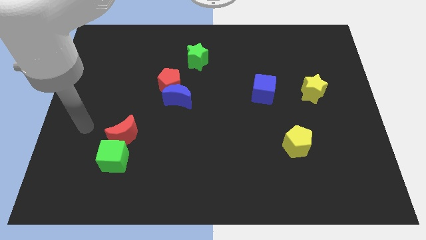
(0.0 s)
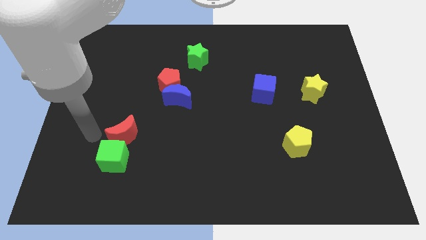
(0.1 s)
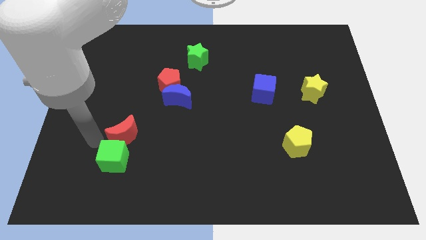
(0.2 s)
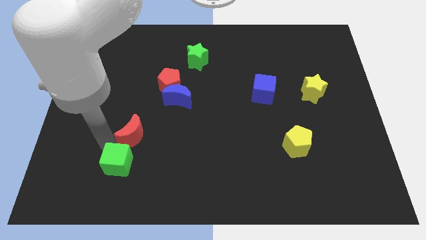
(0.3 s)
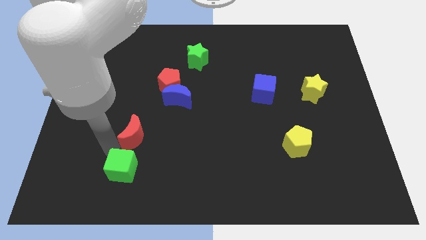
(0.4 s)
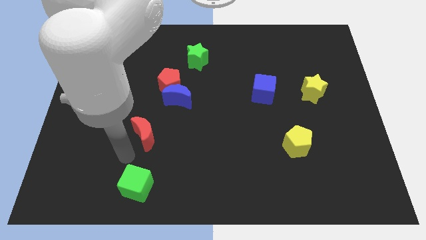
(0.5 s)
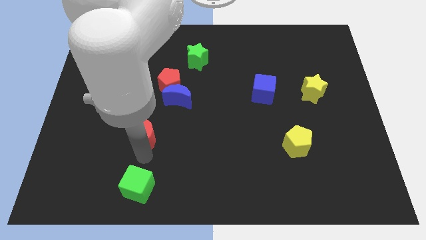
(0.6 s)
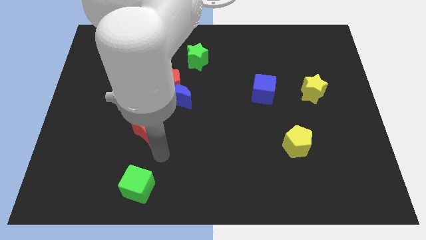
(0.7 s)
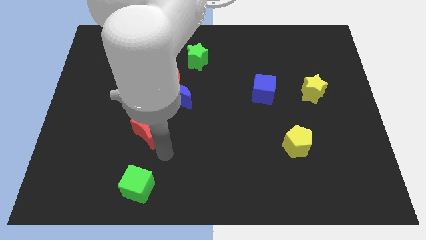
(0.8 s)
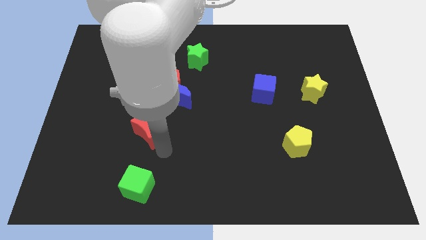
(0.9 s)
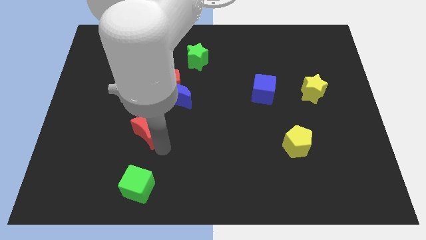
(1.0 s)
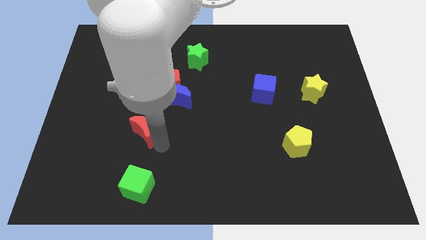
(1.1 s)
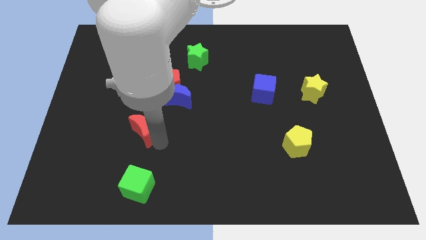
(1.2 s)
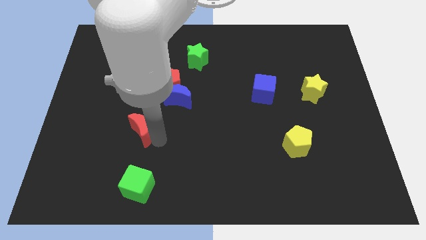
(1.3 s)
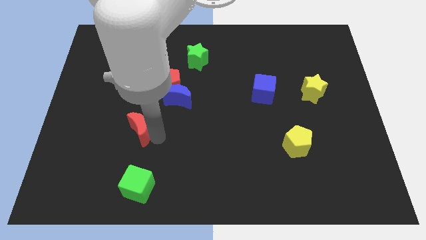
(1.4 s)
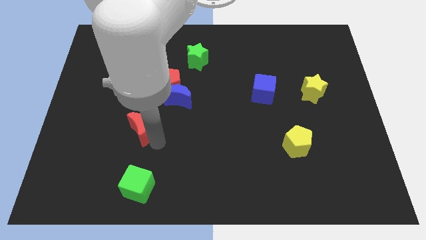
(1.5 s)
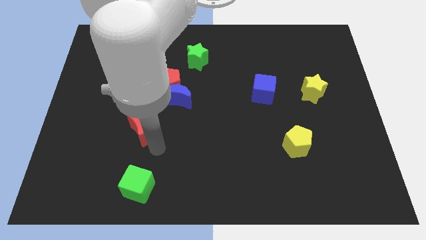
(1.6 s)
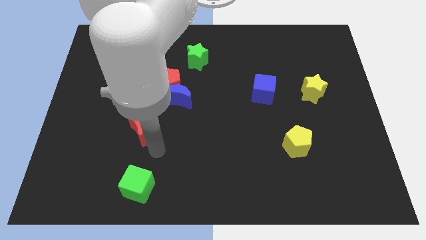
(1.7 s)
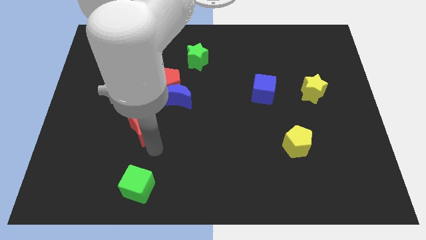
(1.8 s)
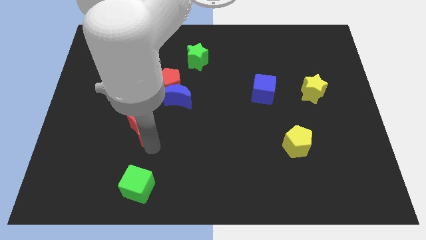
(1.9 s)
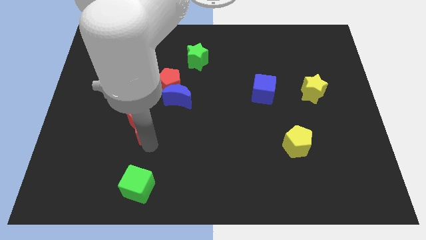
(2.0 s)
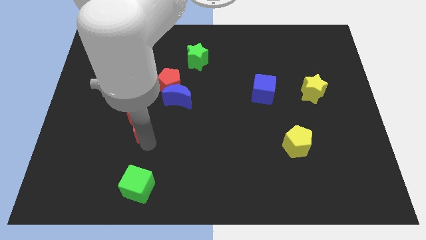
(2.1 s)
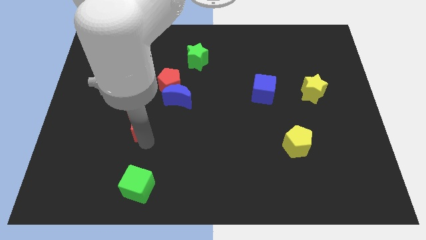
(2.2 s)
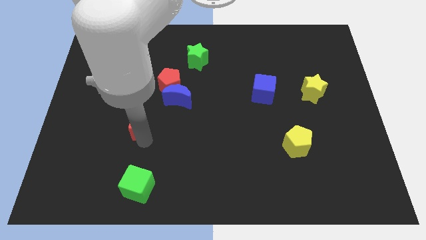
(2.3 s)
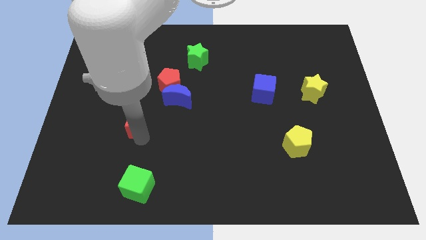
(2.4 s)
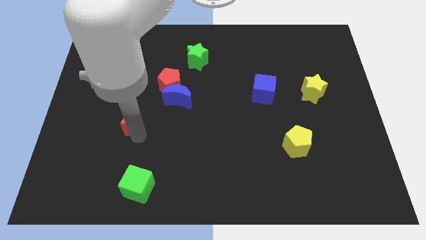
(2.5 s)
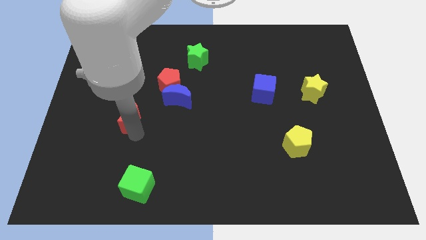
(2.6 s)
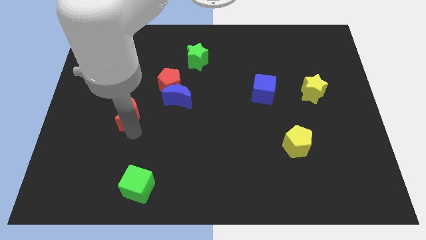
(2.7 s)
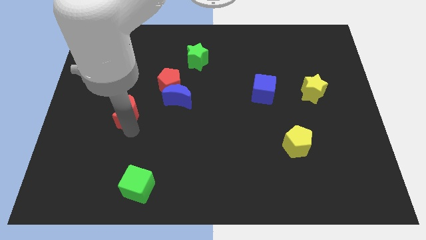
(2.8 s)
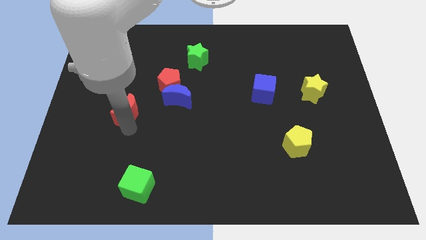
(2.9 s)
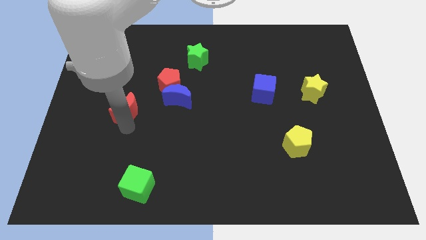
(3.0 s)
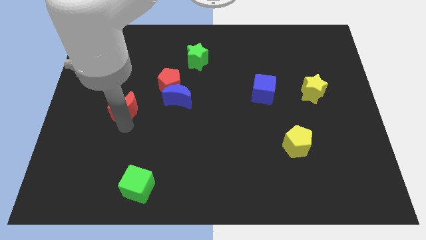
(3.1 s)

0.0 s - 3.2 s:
push the red moon a little bit upwards

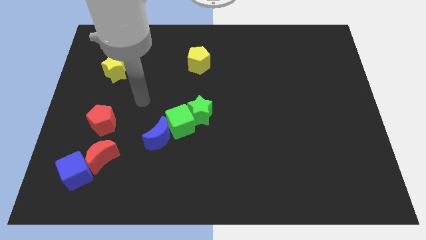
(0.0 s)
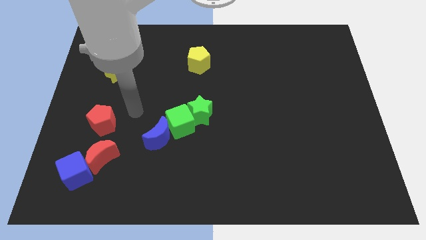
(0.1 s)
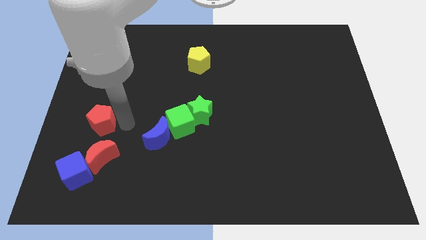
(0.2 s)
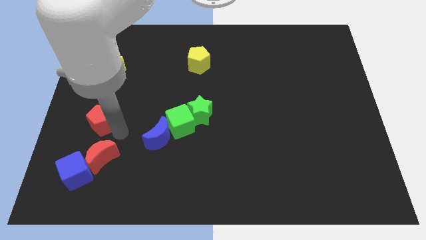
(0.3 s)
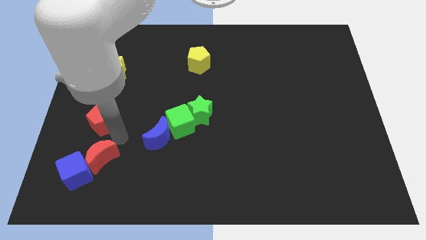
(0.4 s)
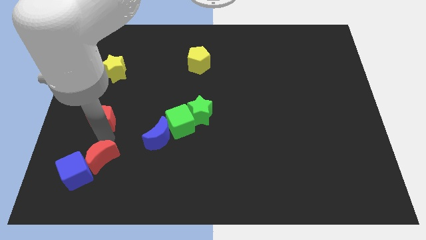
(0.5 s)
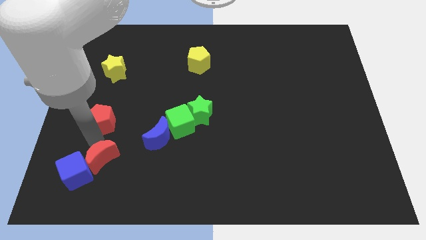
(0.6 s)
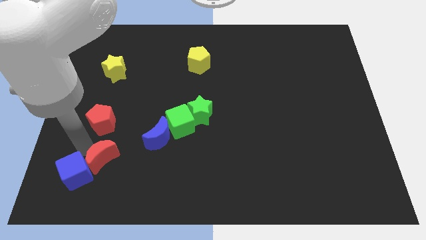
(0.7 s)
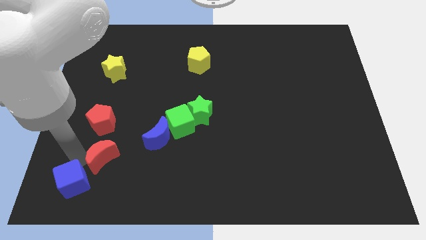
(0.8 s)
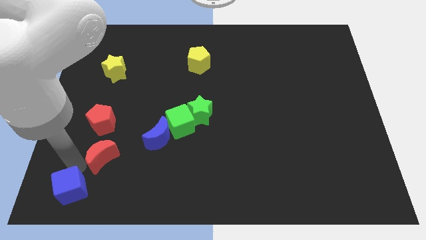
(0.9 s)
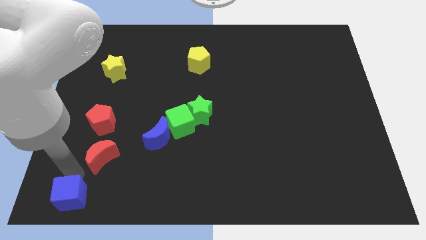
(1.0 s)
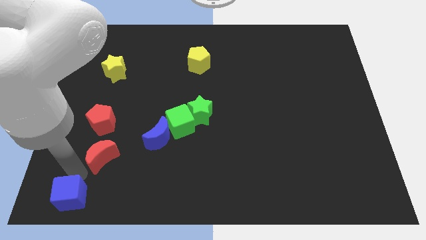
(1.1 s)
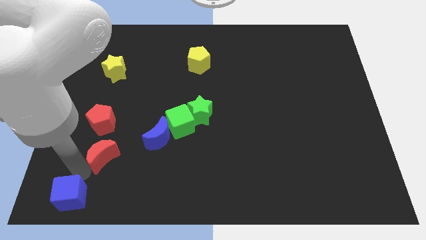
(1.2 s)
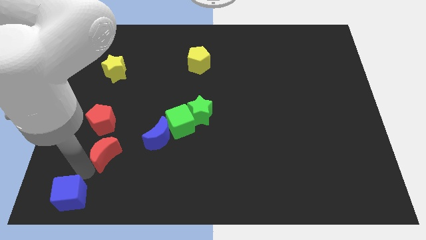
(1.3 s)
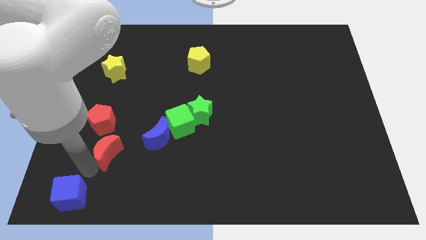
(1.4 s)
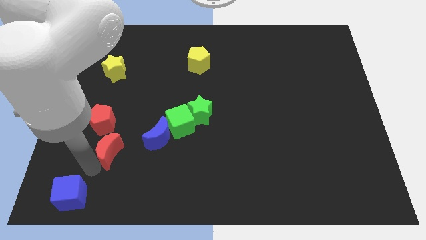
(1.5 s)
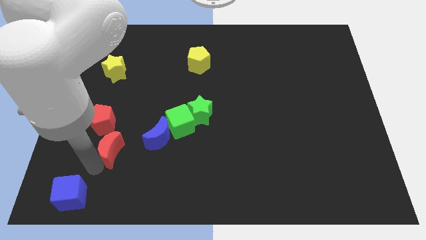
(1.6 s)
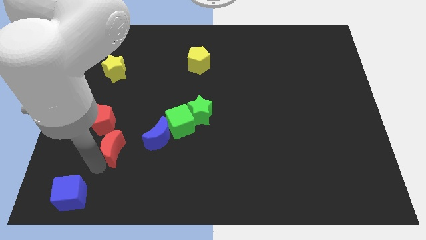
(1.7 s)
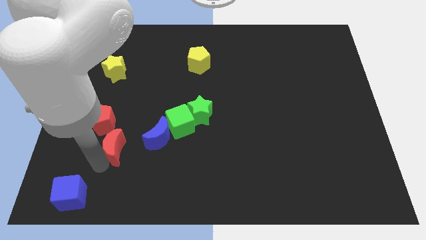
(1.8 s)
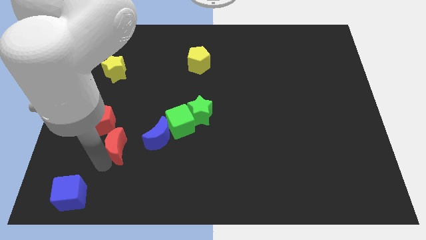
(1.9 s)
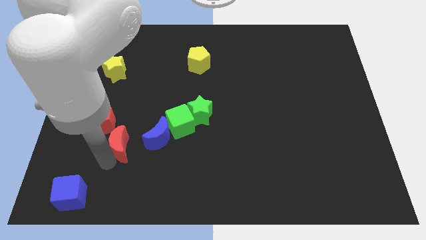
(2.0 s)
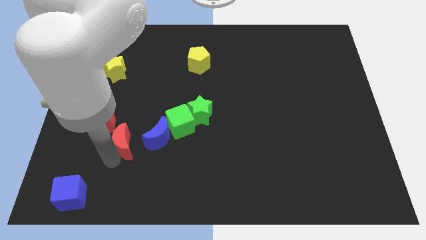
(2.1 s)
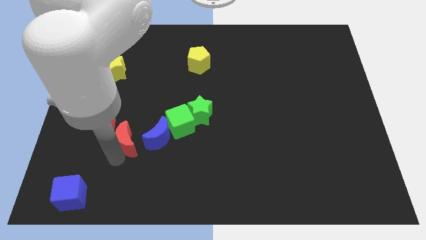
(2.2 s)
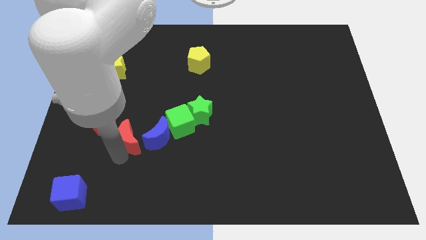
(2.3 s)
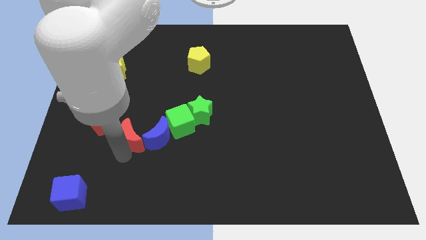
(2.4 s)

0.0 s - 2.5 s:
slide the red moon a little bit up and to the right diagonally

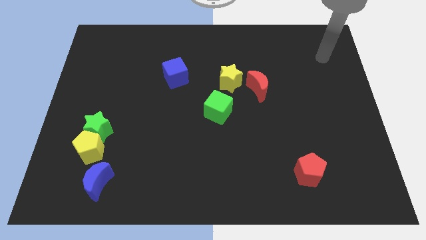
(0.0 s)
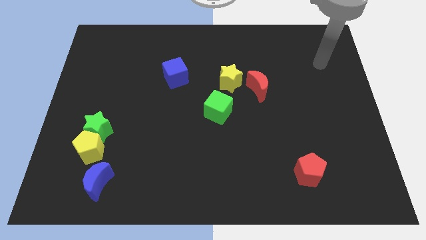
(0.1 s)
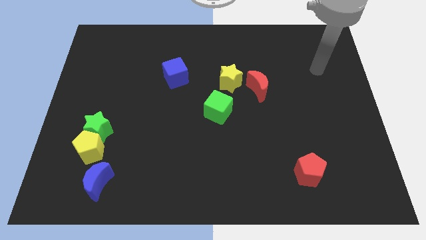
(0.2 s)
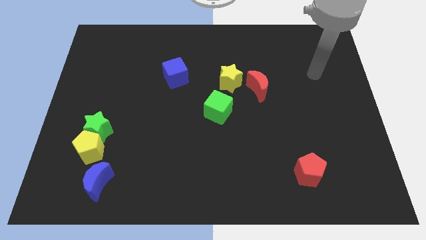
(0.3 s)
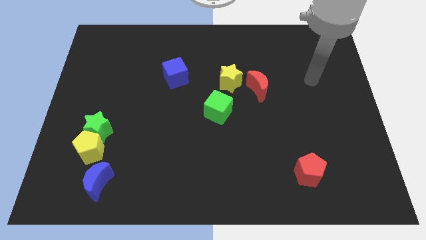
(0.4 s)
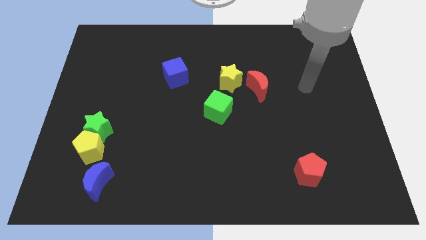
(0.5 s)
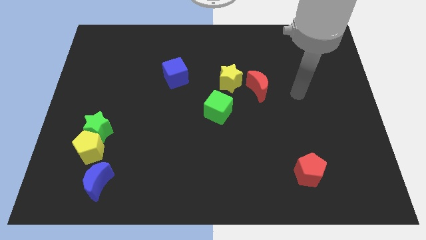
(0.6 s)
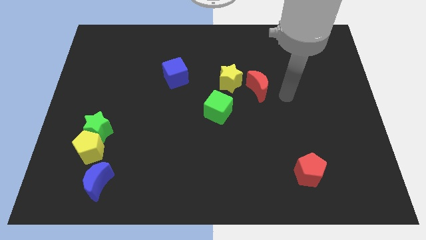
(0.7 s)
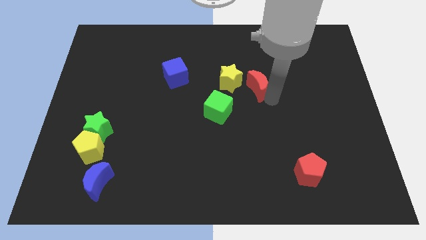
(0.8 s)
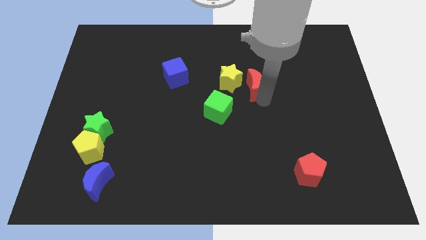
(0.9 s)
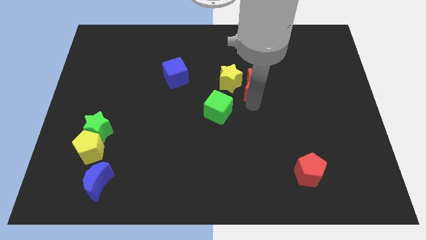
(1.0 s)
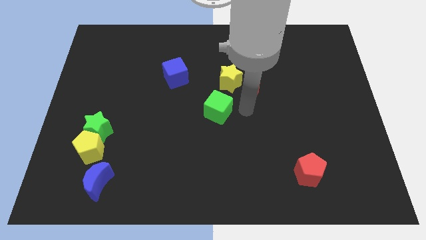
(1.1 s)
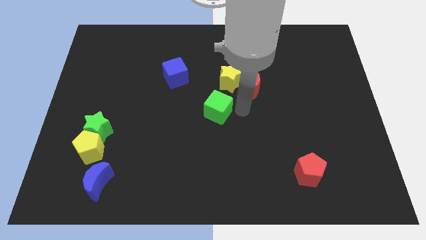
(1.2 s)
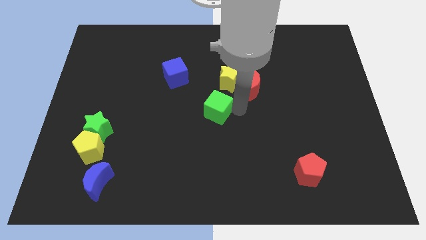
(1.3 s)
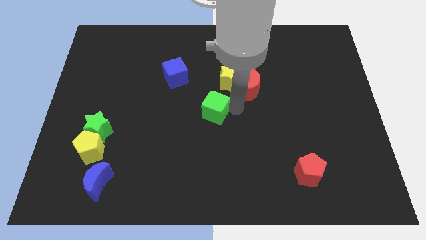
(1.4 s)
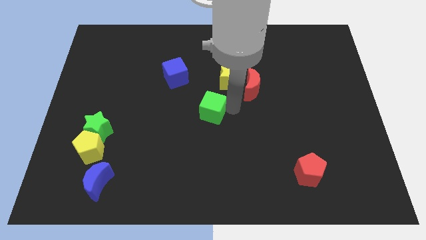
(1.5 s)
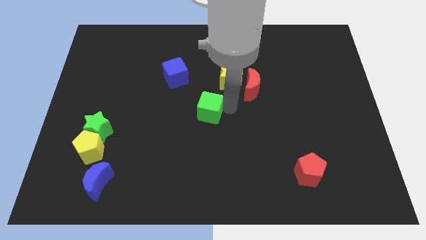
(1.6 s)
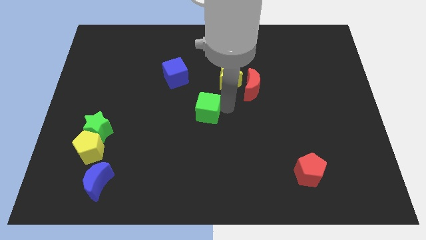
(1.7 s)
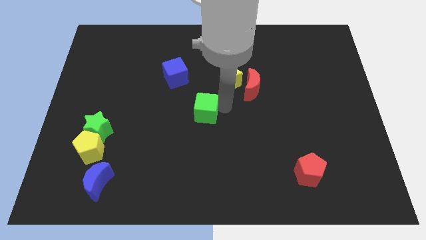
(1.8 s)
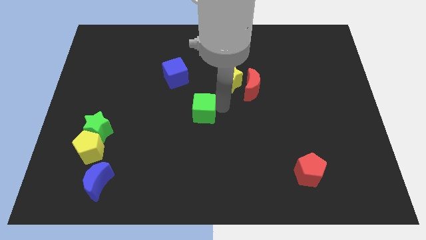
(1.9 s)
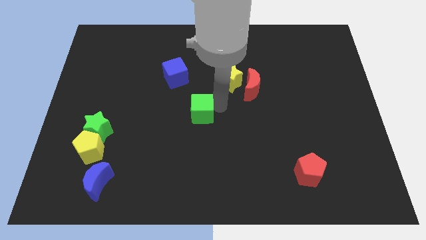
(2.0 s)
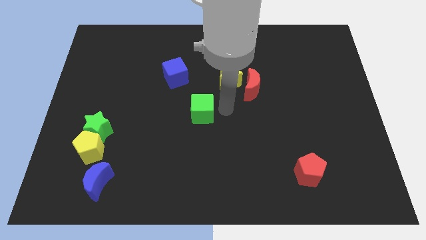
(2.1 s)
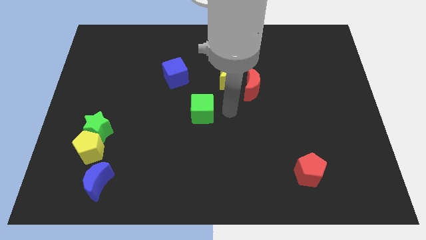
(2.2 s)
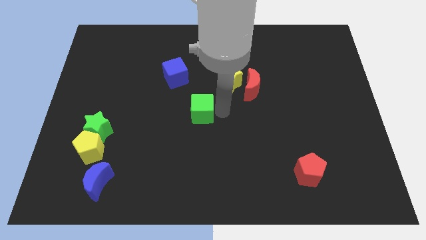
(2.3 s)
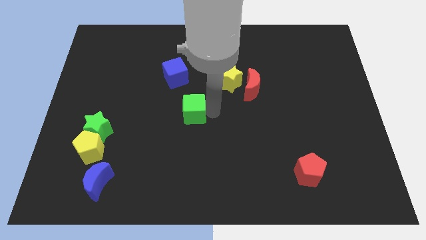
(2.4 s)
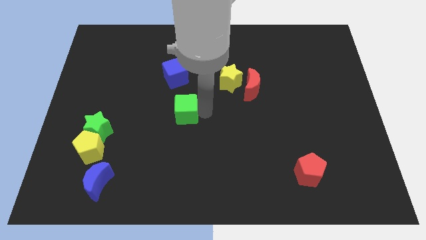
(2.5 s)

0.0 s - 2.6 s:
push the green cube somewhat to the left
